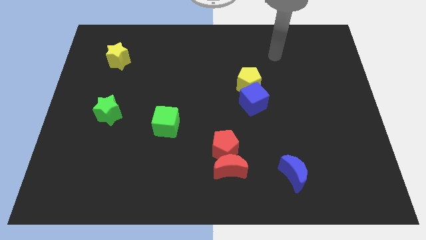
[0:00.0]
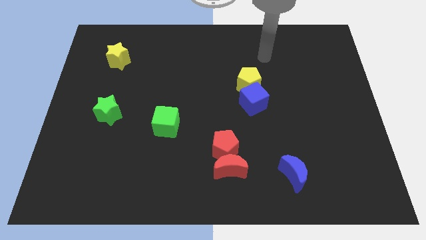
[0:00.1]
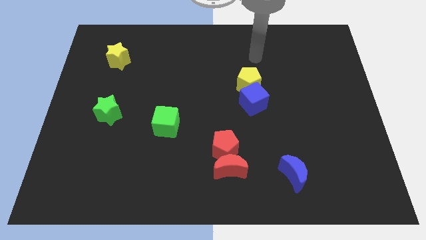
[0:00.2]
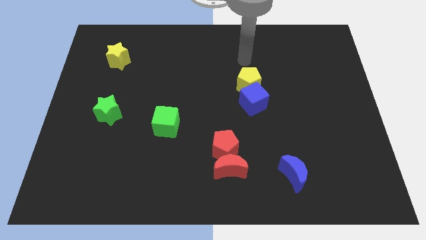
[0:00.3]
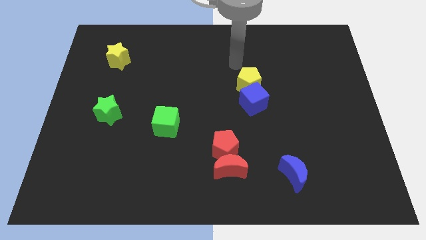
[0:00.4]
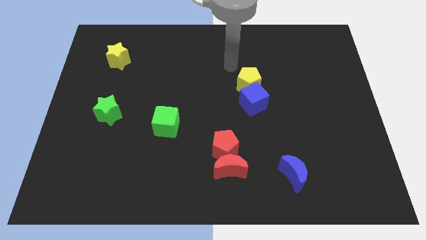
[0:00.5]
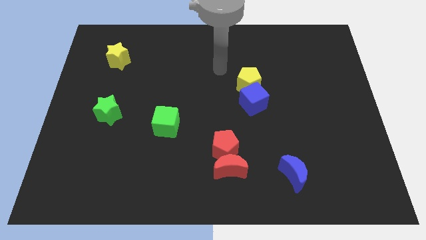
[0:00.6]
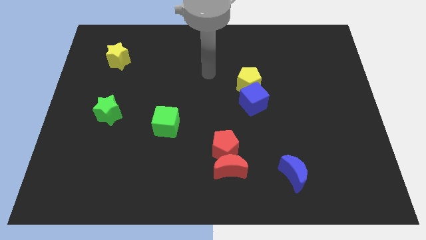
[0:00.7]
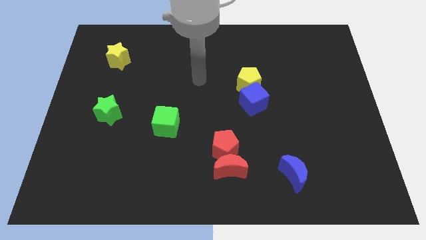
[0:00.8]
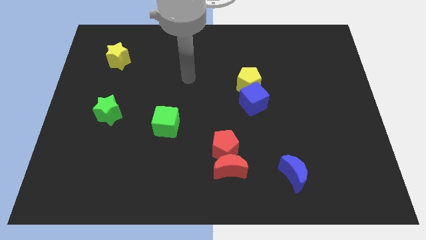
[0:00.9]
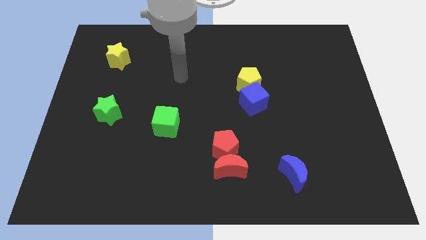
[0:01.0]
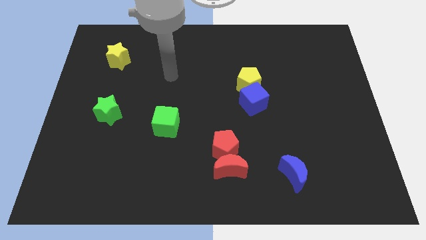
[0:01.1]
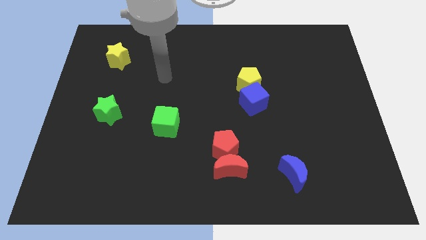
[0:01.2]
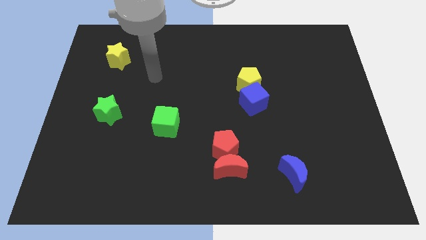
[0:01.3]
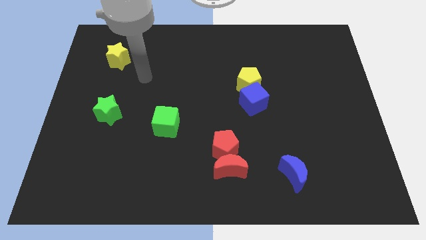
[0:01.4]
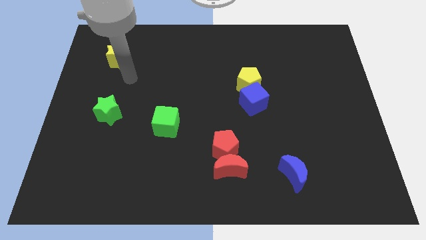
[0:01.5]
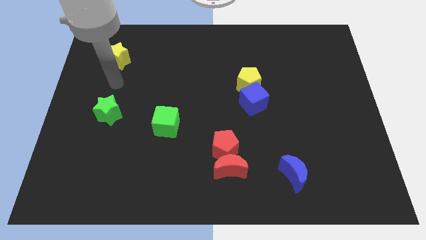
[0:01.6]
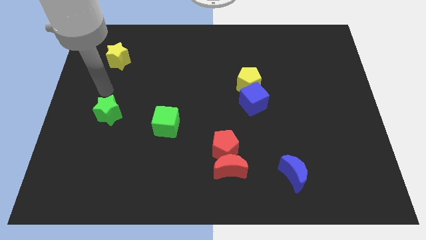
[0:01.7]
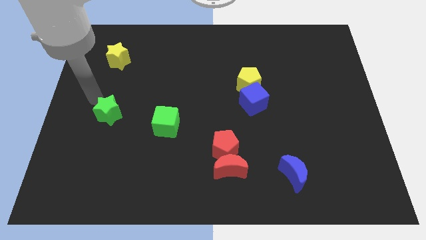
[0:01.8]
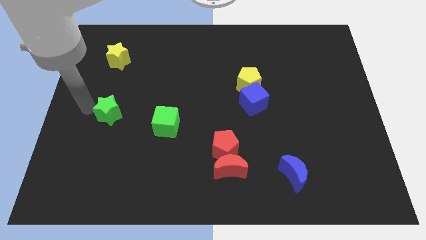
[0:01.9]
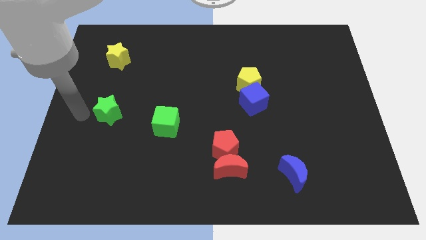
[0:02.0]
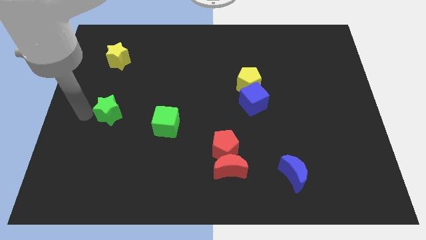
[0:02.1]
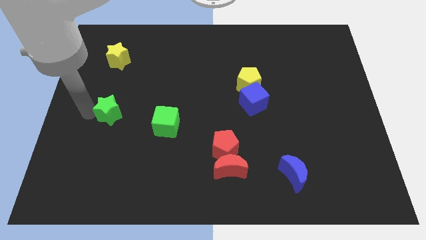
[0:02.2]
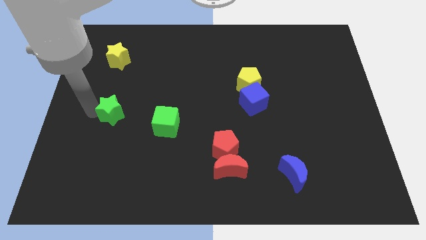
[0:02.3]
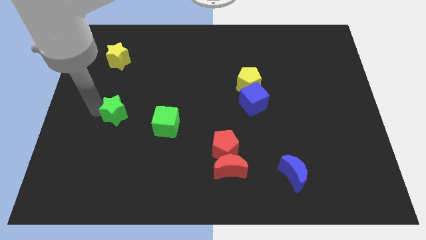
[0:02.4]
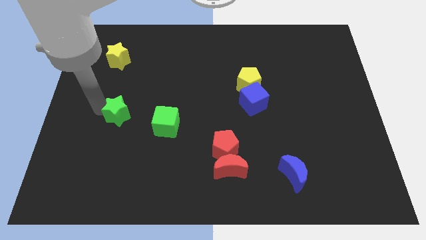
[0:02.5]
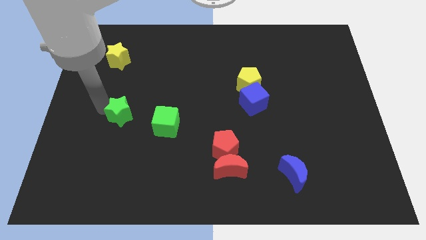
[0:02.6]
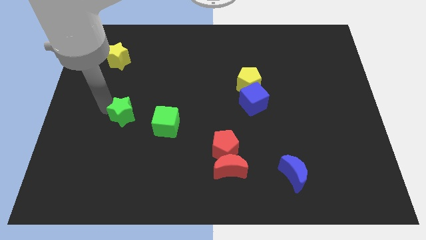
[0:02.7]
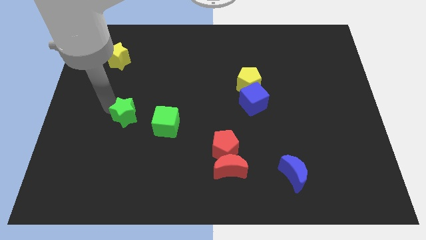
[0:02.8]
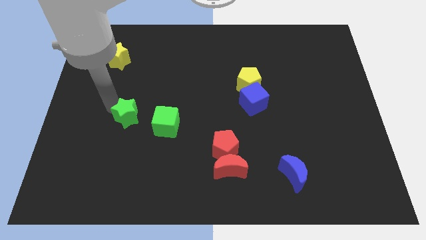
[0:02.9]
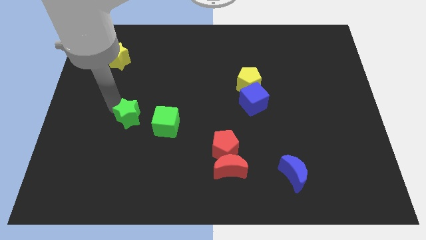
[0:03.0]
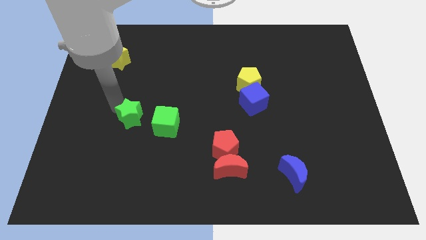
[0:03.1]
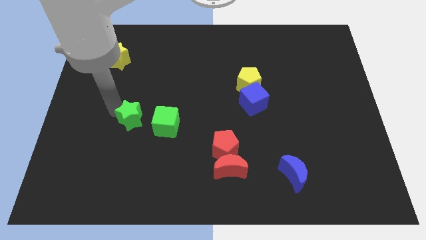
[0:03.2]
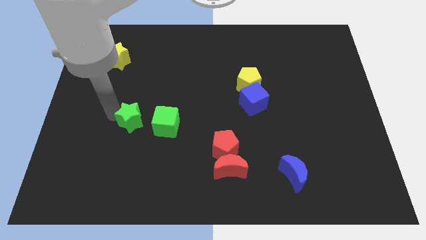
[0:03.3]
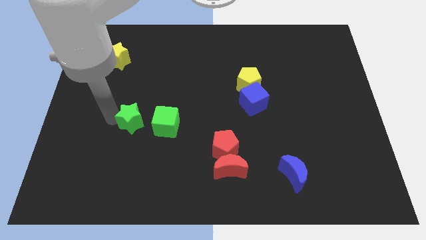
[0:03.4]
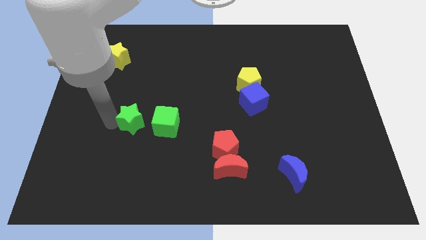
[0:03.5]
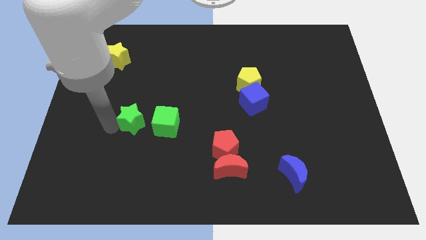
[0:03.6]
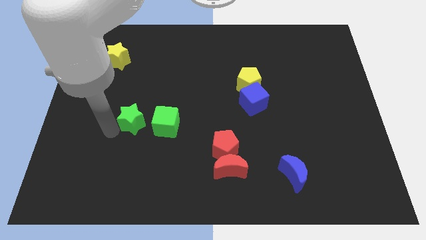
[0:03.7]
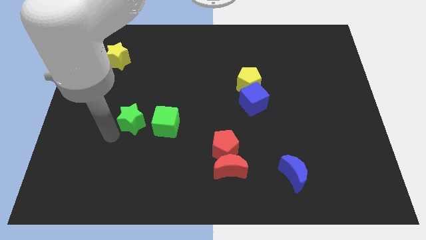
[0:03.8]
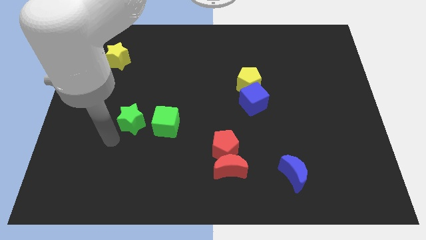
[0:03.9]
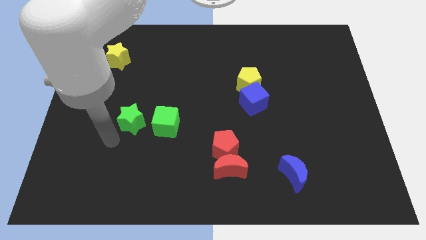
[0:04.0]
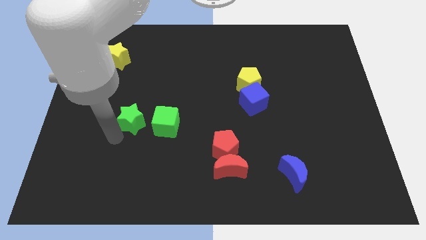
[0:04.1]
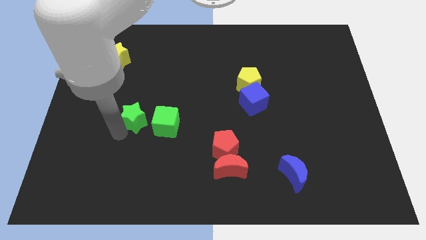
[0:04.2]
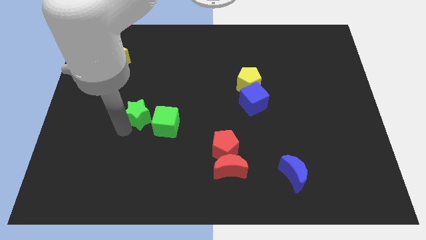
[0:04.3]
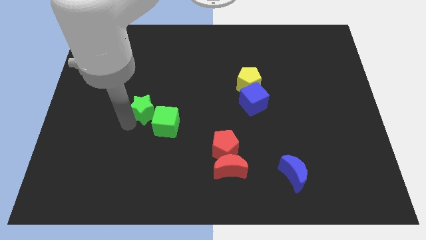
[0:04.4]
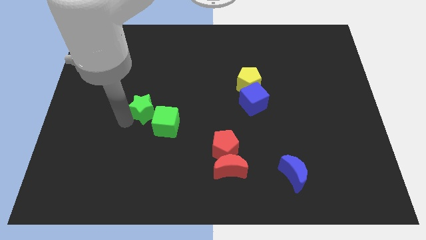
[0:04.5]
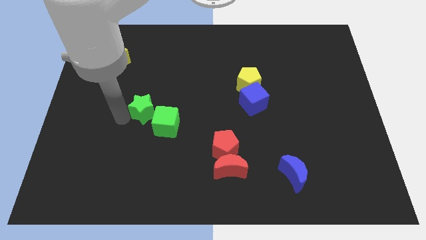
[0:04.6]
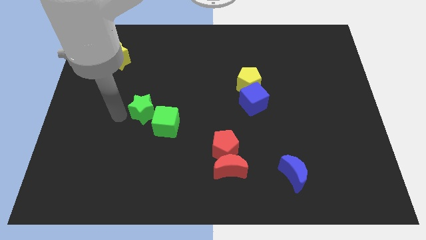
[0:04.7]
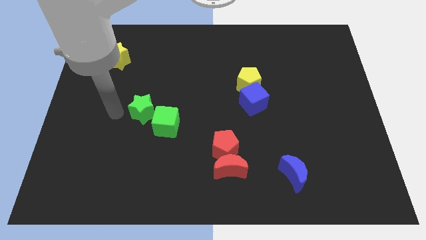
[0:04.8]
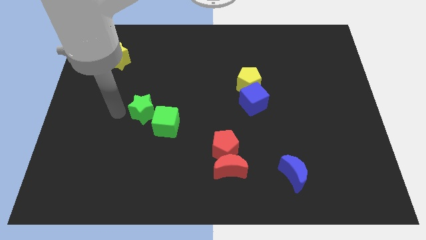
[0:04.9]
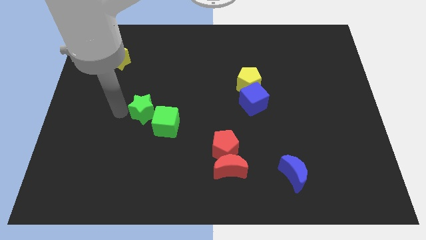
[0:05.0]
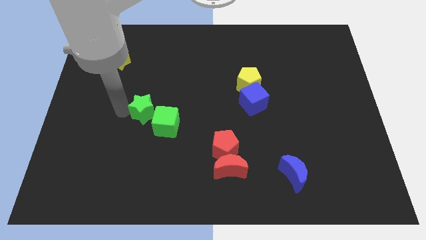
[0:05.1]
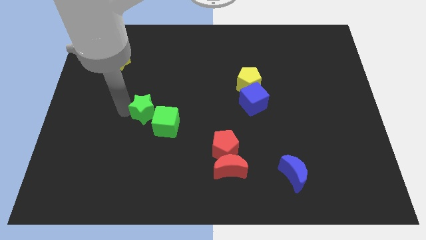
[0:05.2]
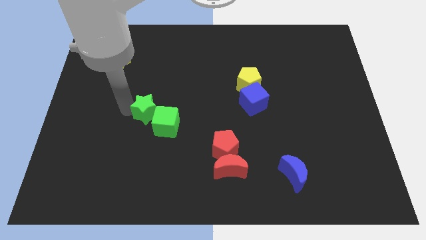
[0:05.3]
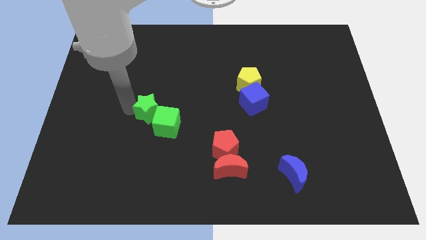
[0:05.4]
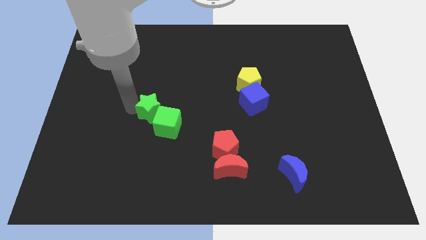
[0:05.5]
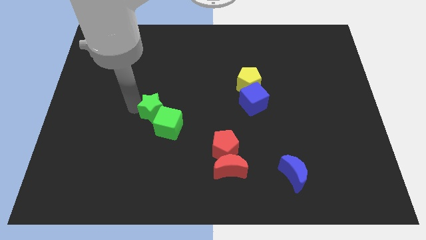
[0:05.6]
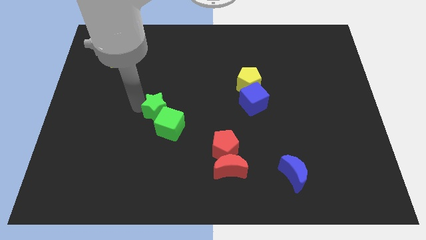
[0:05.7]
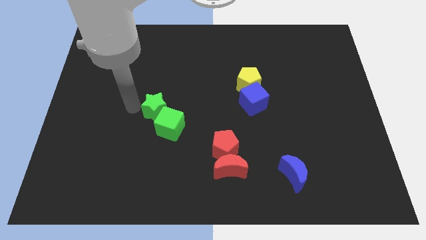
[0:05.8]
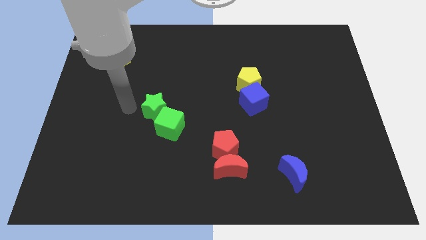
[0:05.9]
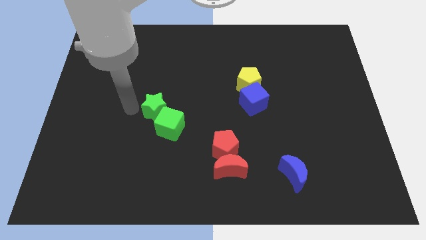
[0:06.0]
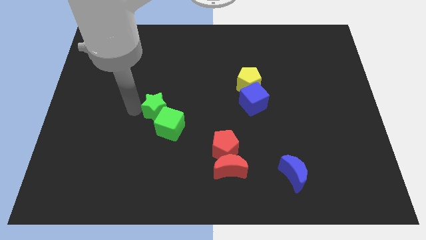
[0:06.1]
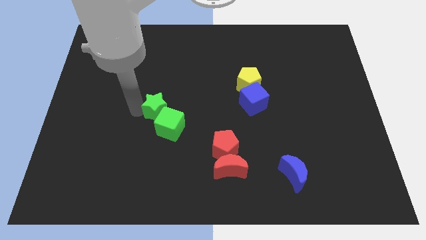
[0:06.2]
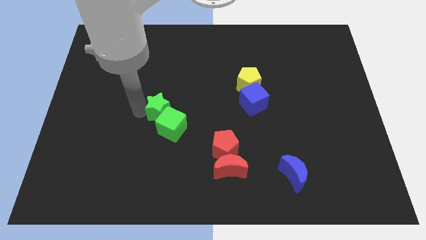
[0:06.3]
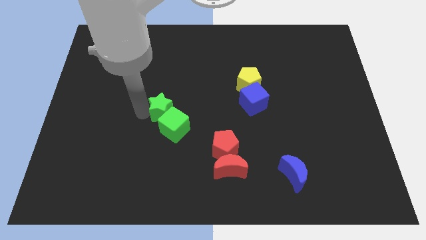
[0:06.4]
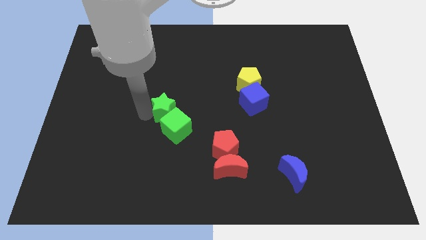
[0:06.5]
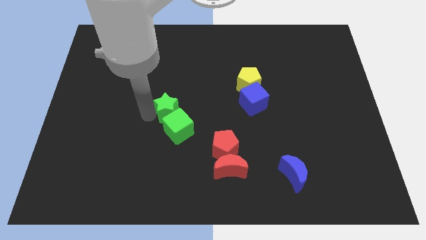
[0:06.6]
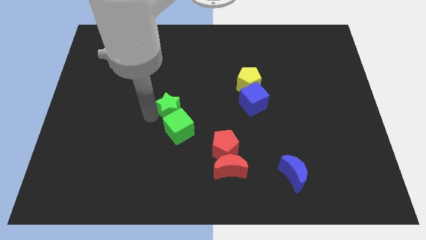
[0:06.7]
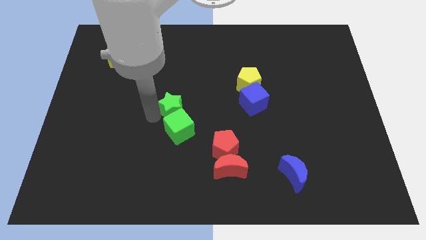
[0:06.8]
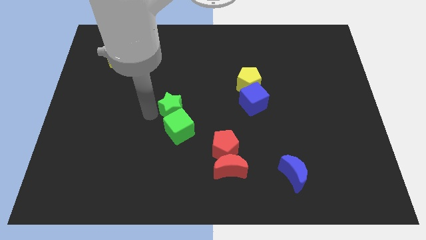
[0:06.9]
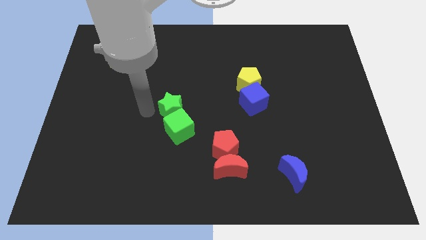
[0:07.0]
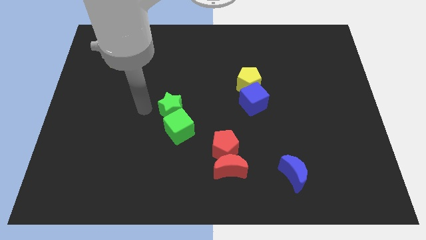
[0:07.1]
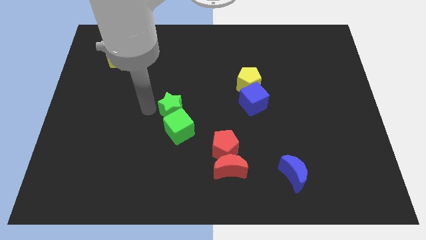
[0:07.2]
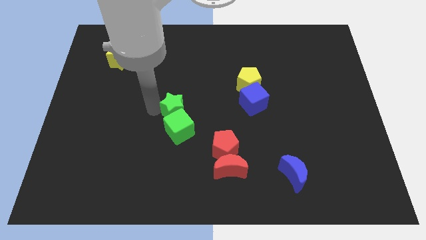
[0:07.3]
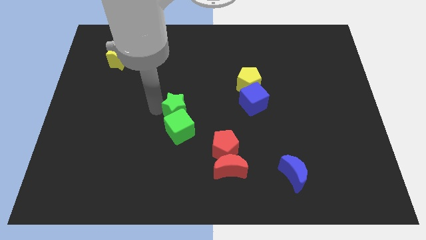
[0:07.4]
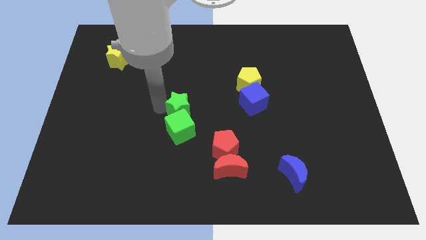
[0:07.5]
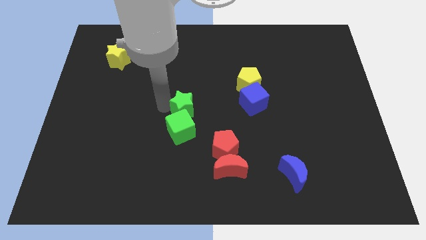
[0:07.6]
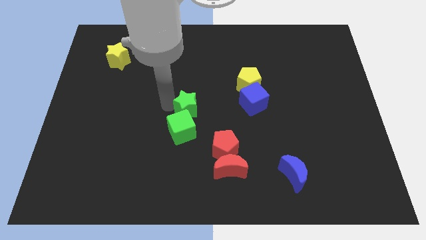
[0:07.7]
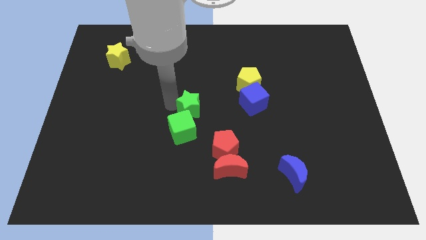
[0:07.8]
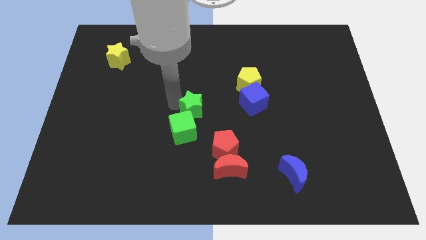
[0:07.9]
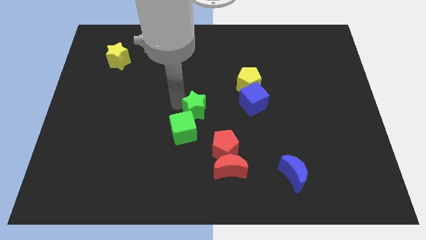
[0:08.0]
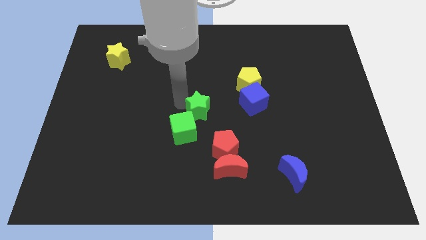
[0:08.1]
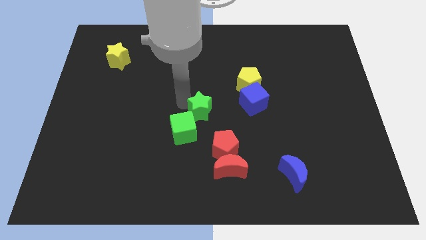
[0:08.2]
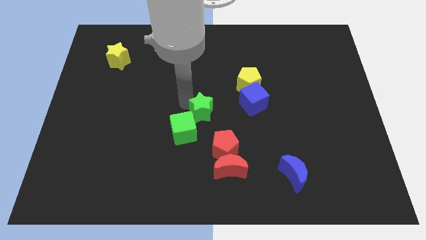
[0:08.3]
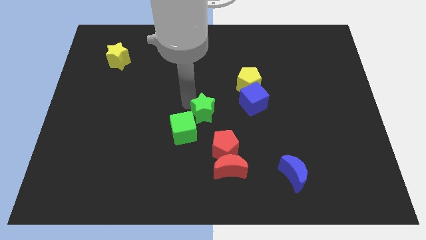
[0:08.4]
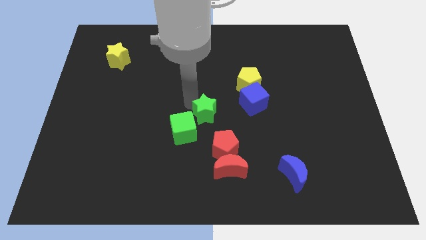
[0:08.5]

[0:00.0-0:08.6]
put the green star to the top side of the red pentagon
